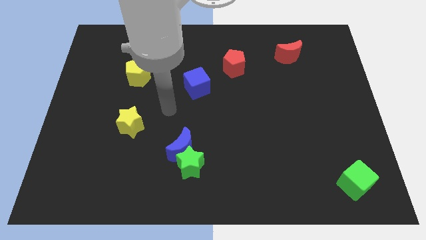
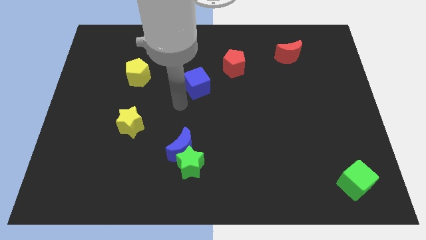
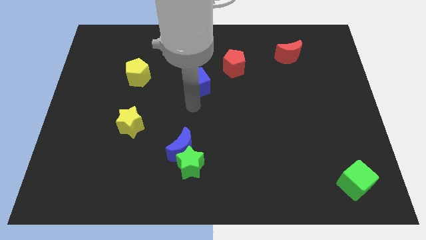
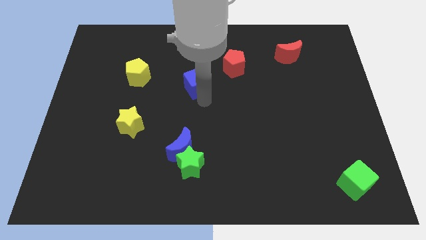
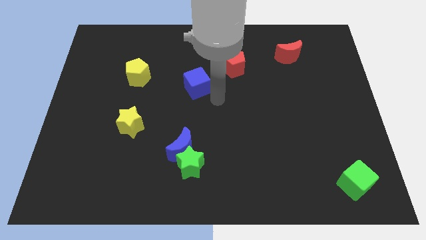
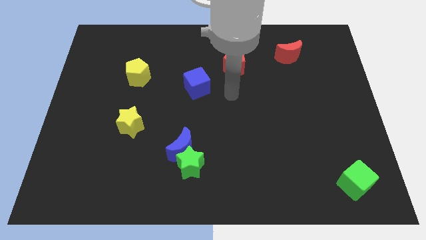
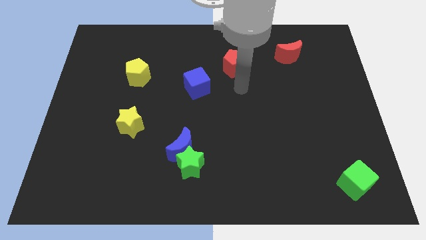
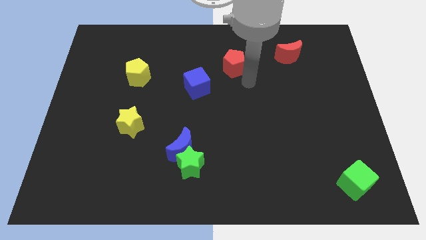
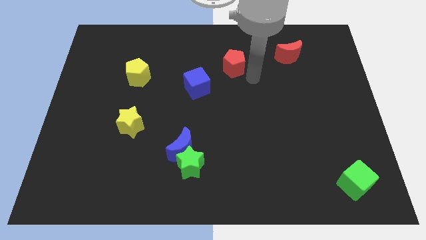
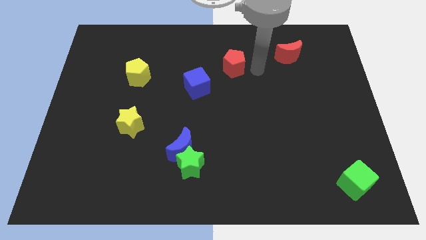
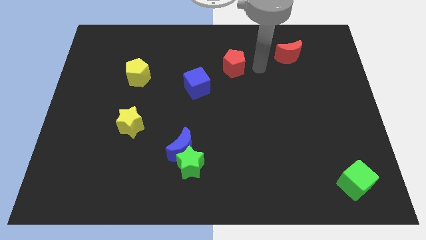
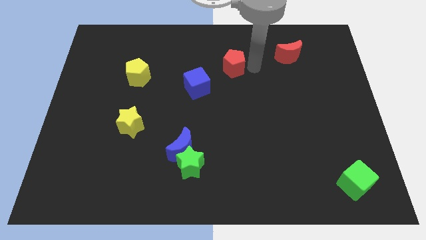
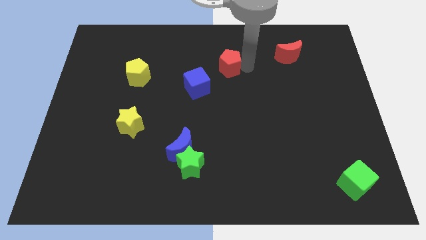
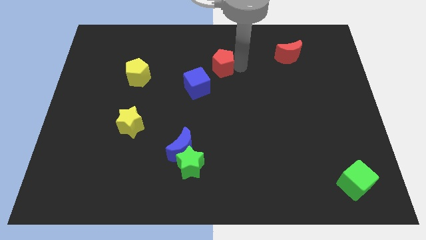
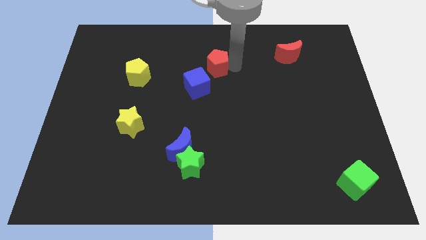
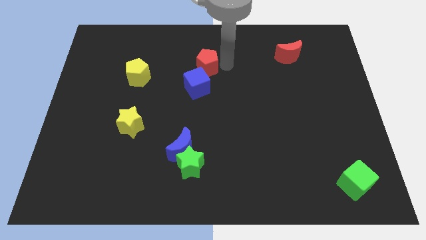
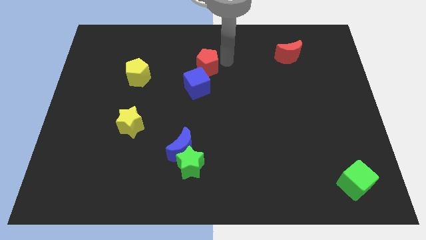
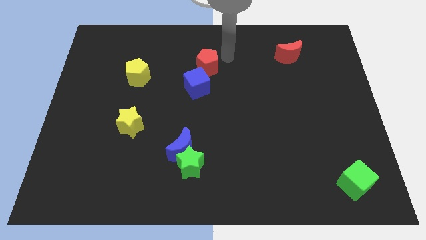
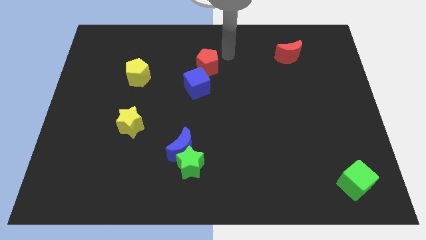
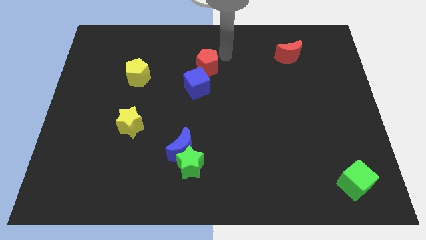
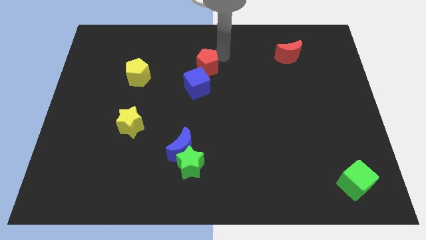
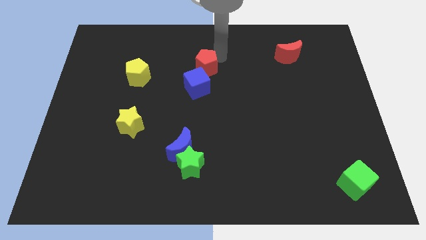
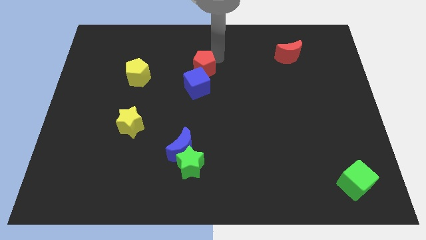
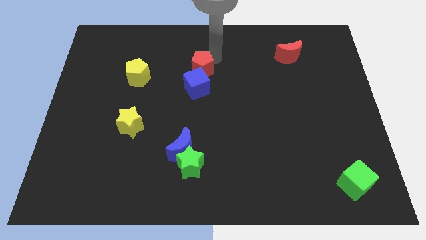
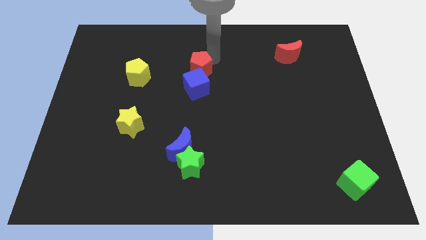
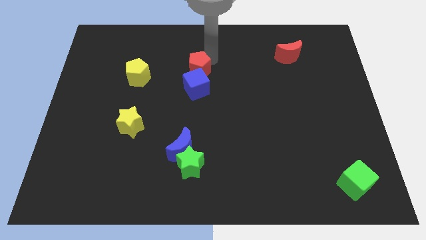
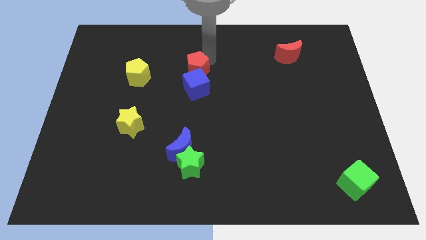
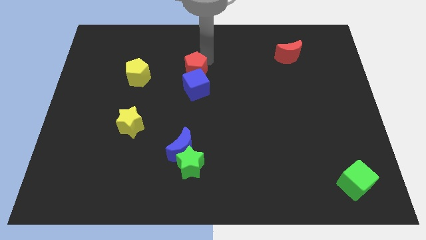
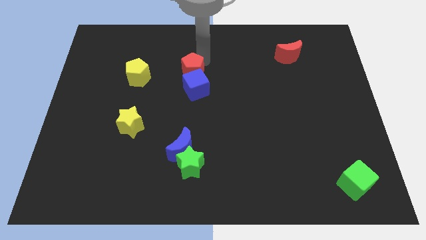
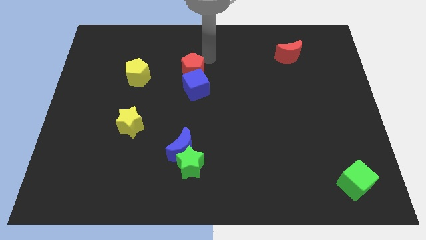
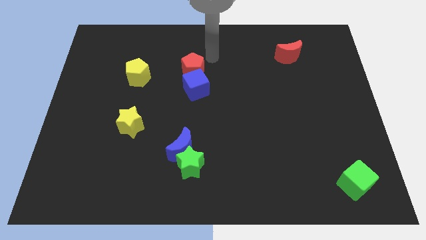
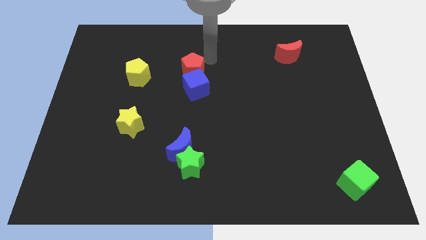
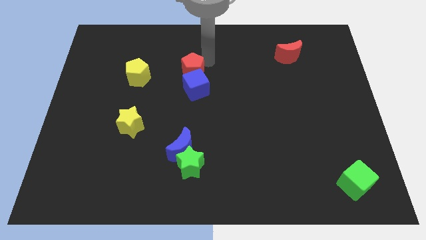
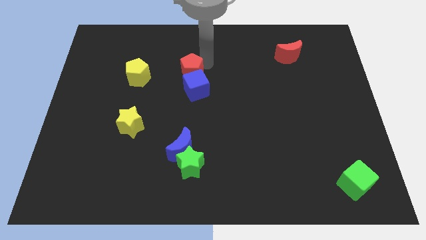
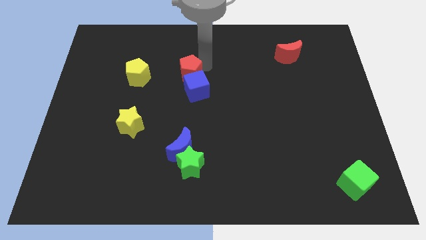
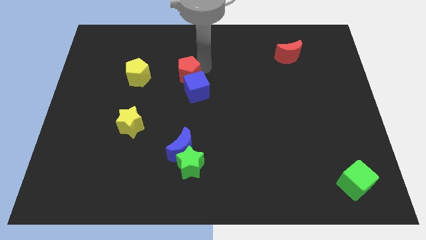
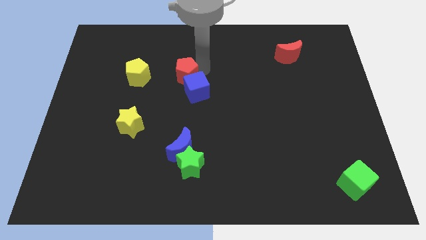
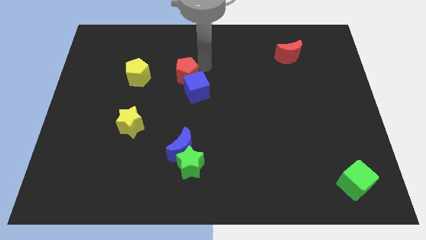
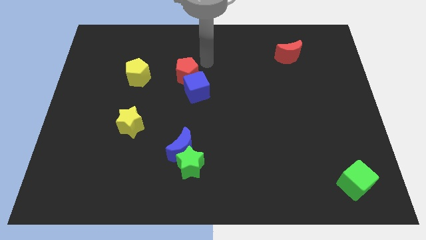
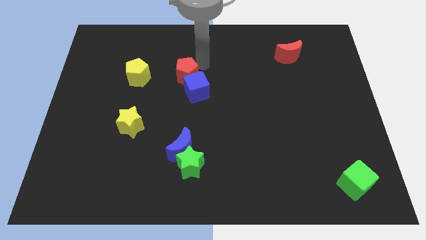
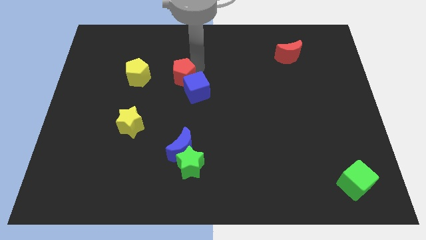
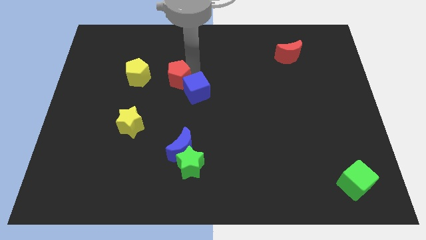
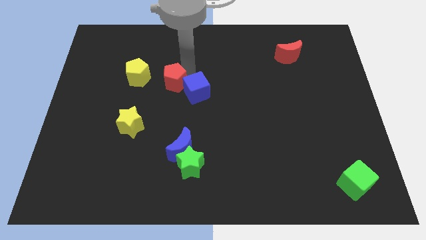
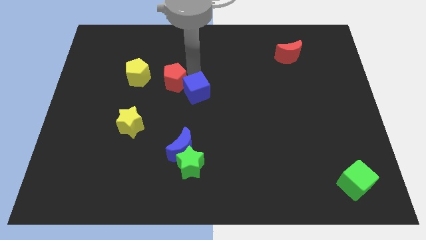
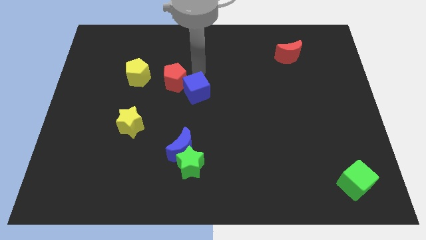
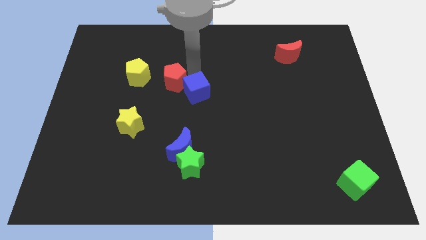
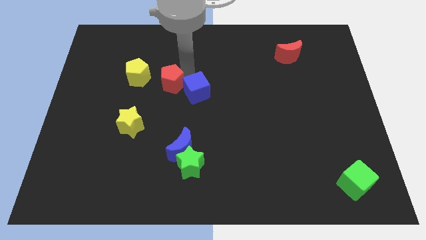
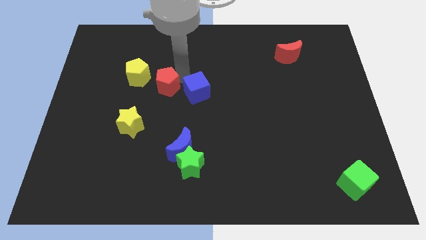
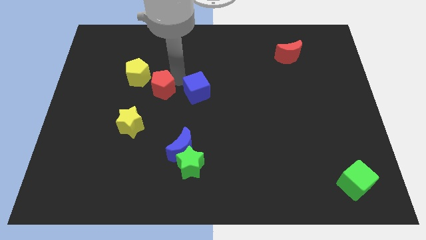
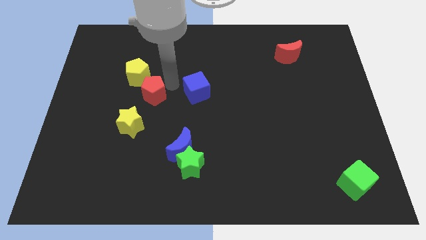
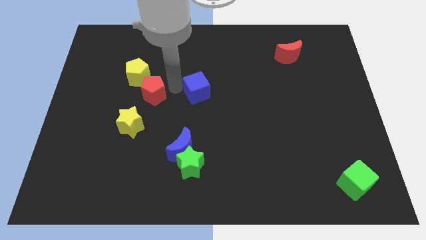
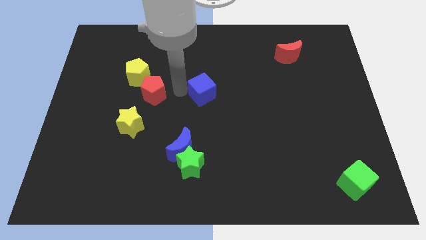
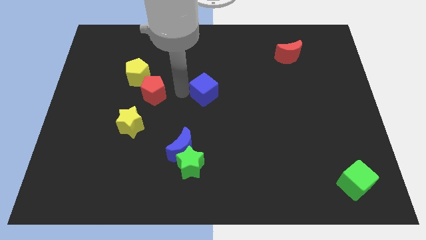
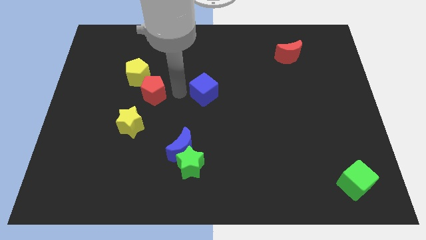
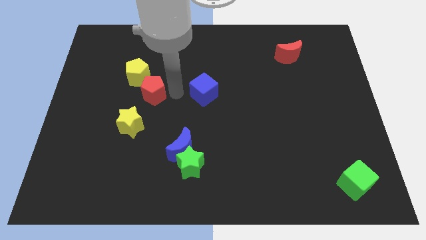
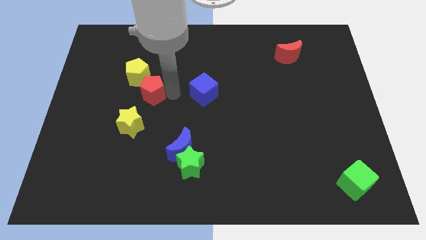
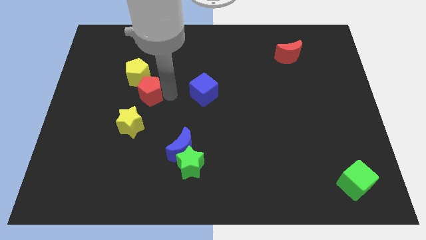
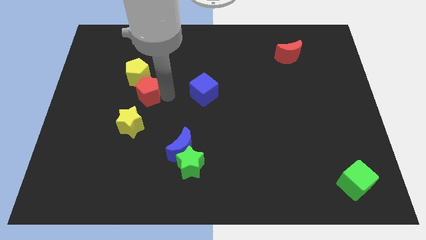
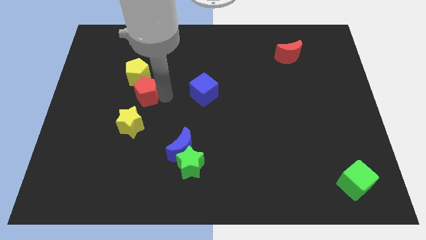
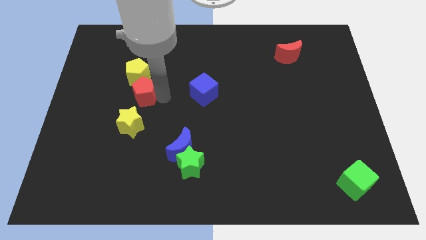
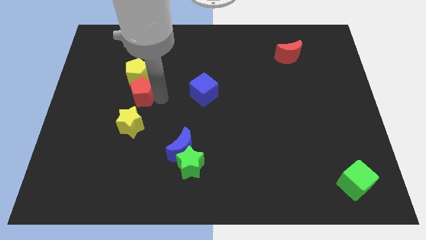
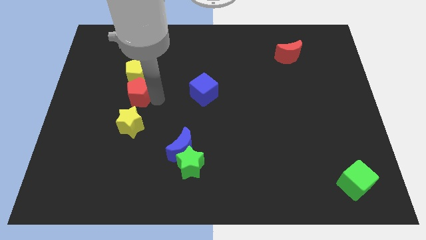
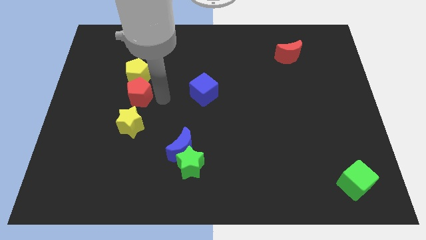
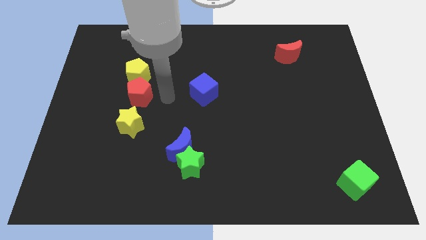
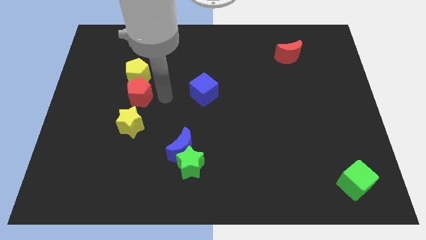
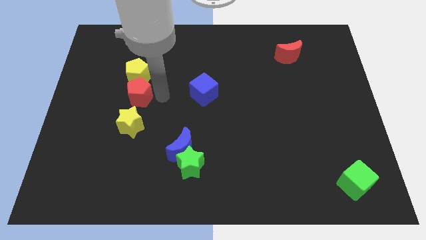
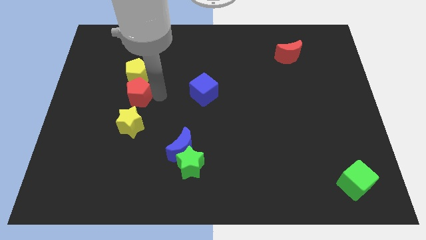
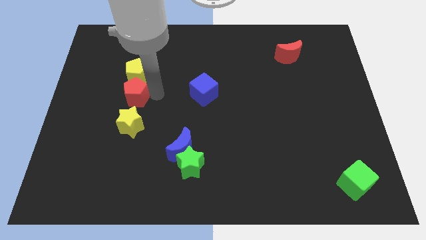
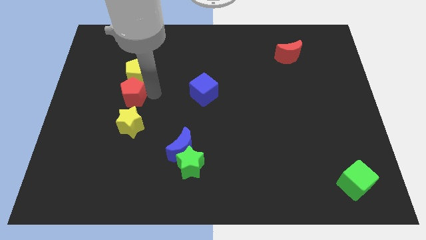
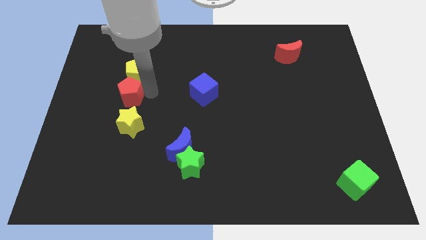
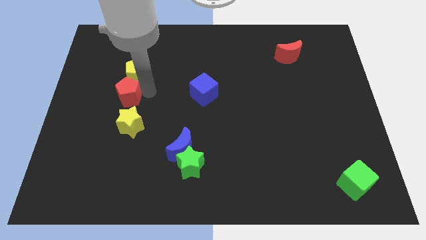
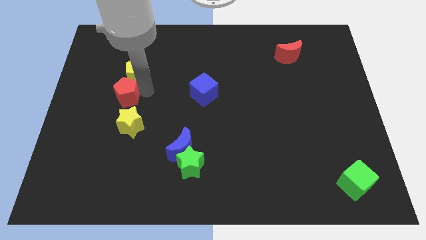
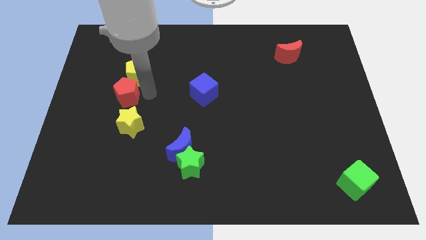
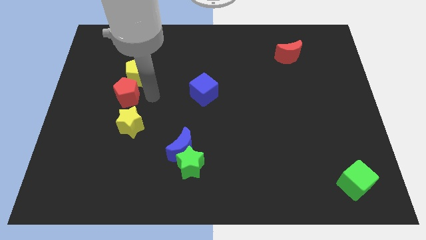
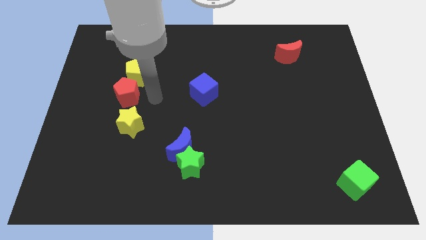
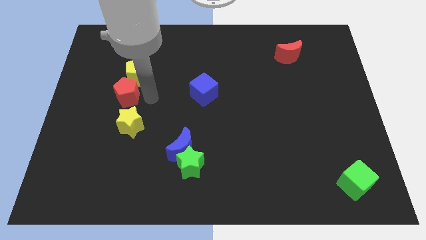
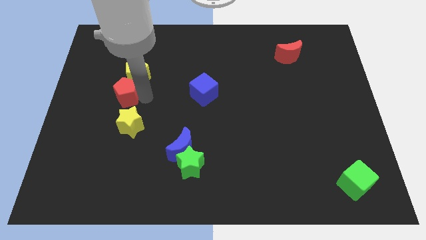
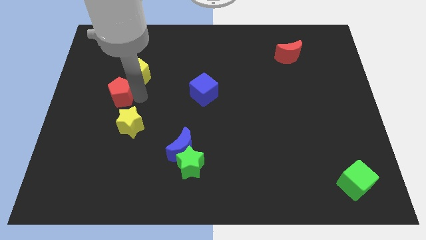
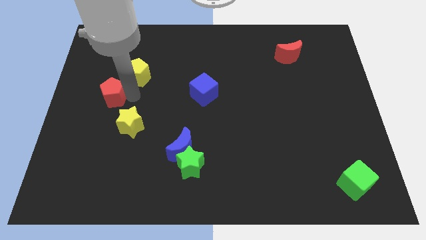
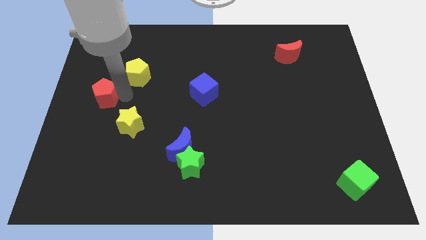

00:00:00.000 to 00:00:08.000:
push the red pentagon to the left side
